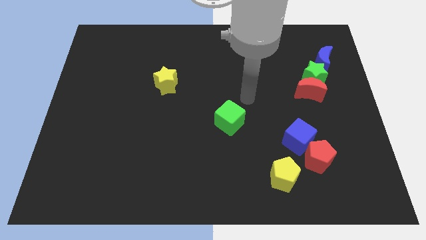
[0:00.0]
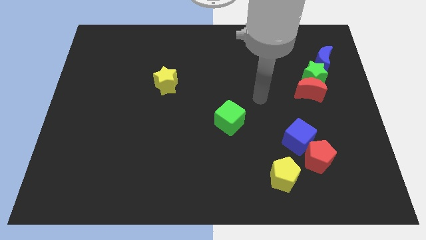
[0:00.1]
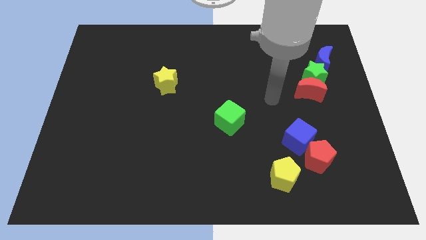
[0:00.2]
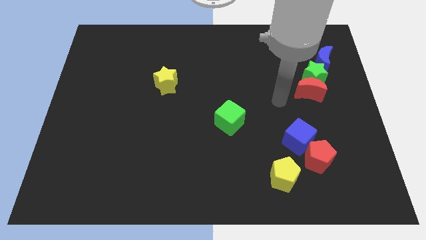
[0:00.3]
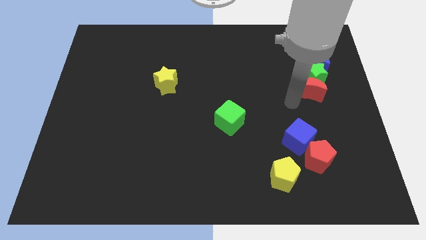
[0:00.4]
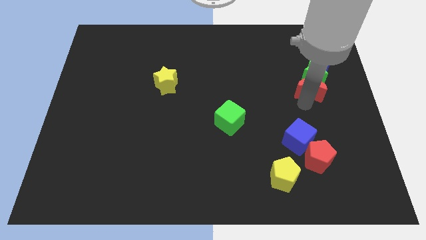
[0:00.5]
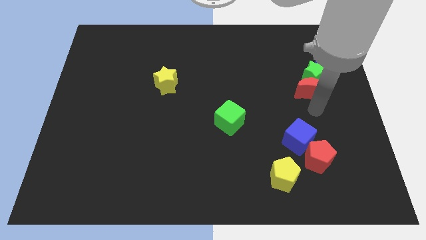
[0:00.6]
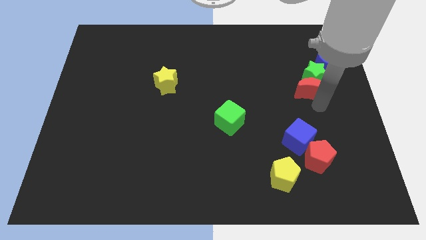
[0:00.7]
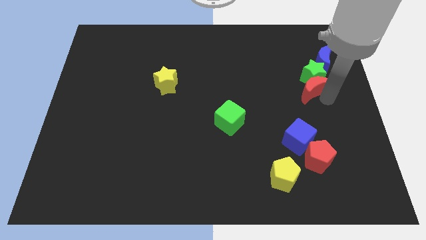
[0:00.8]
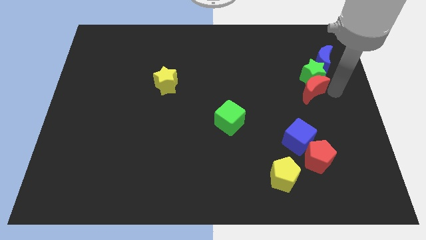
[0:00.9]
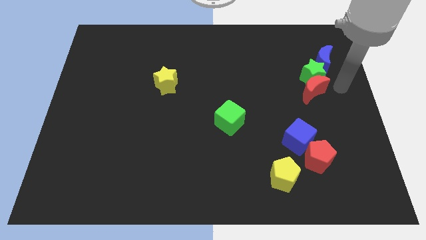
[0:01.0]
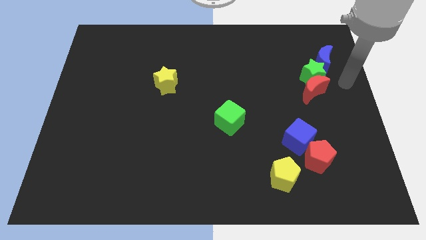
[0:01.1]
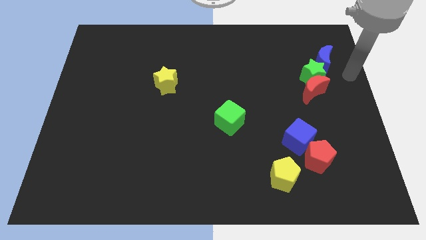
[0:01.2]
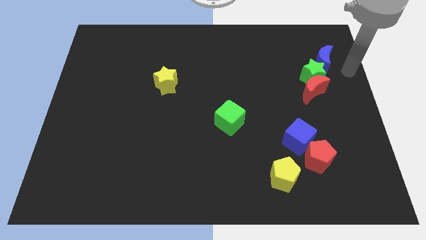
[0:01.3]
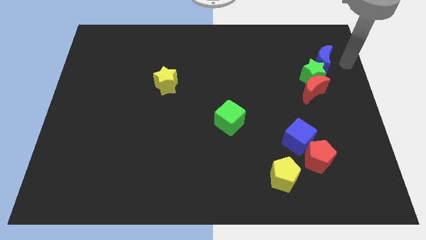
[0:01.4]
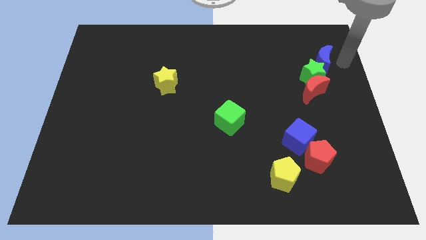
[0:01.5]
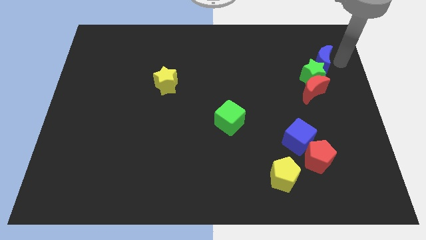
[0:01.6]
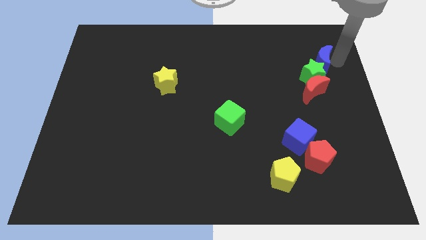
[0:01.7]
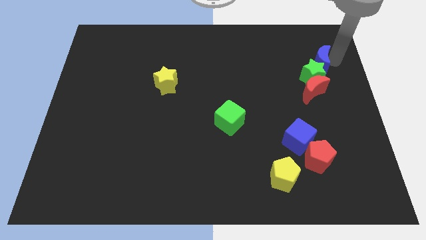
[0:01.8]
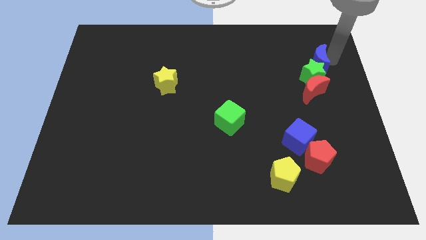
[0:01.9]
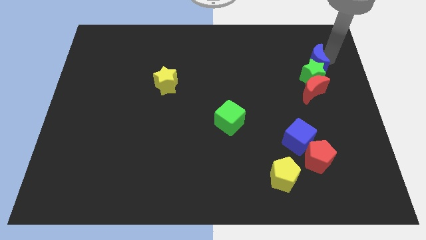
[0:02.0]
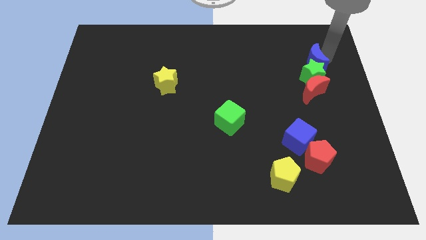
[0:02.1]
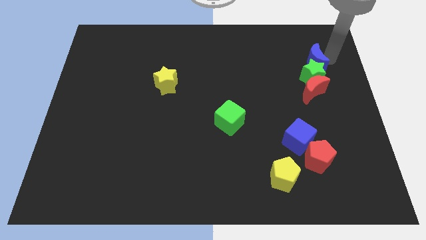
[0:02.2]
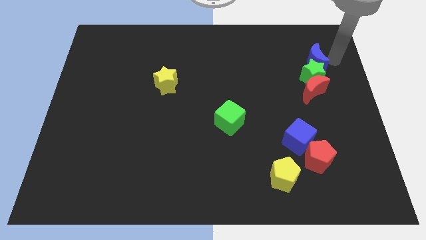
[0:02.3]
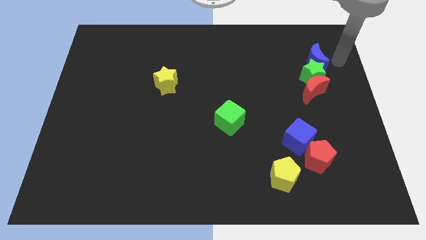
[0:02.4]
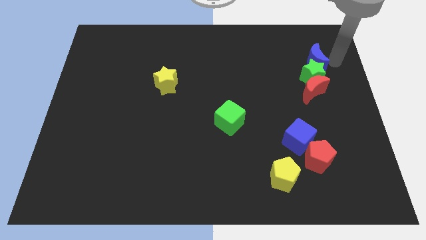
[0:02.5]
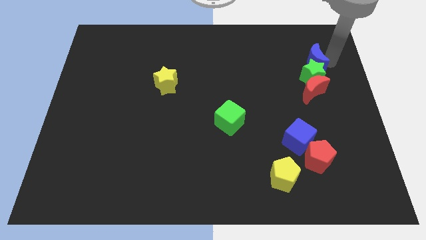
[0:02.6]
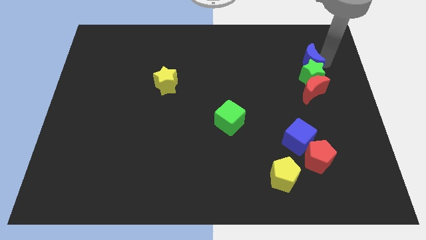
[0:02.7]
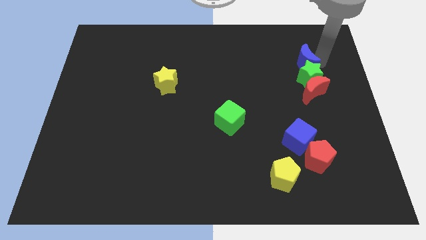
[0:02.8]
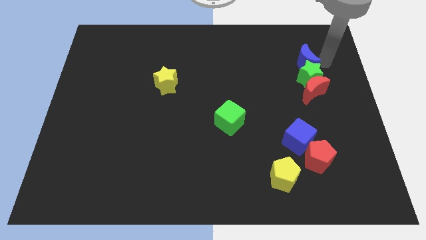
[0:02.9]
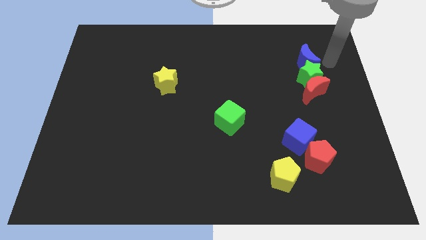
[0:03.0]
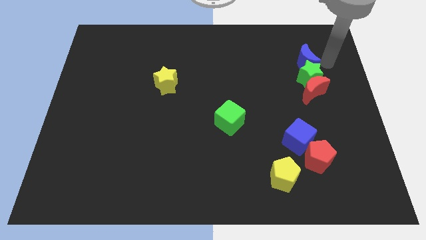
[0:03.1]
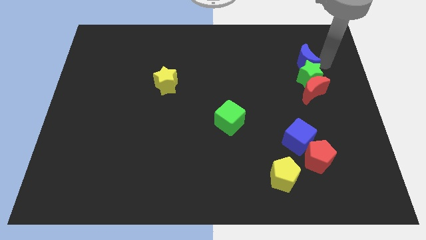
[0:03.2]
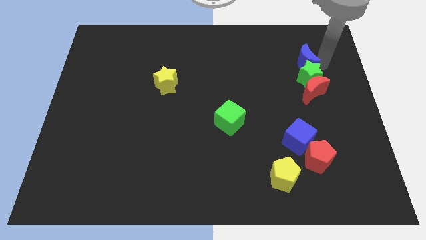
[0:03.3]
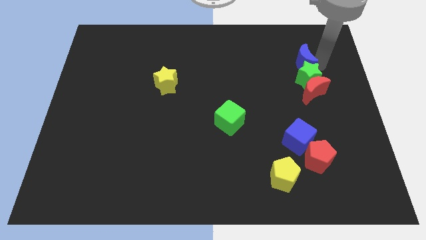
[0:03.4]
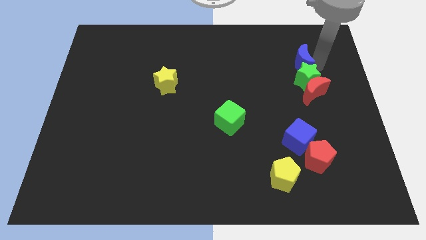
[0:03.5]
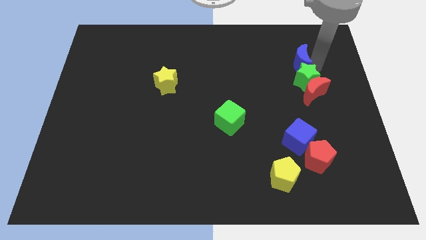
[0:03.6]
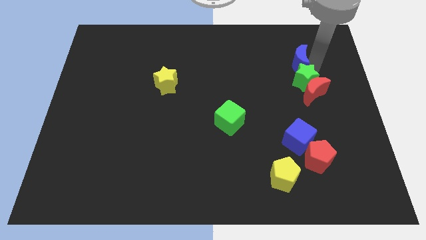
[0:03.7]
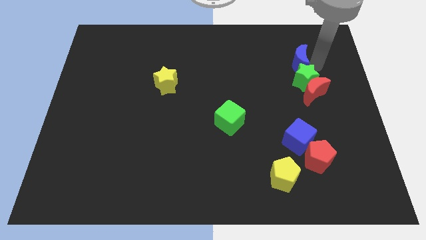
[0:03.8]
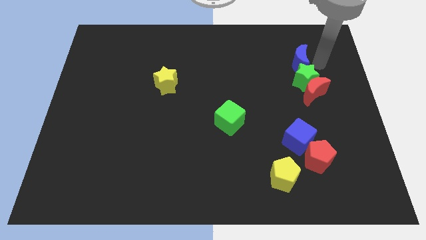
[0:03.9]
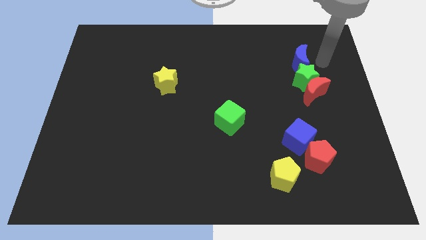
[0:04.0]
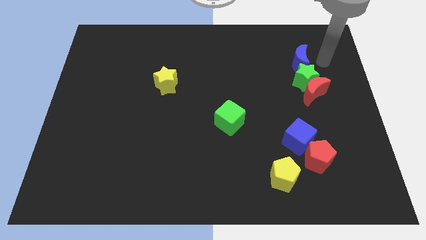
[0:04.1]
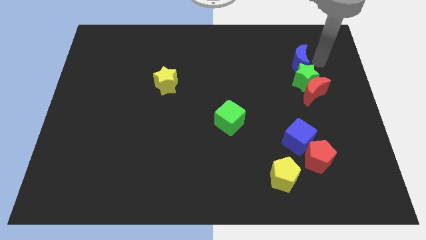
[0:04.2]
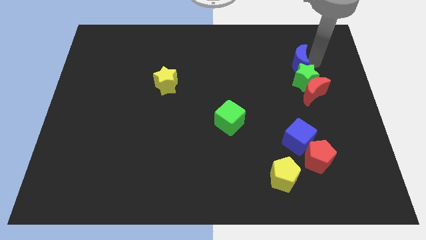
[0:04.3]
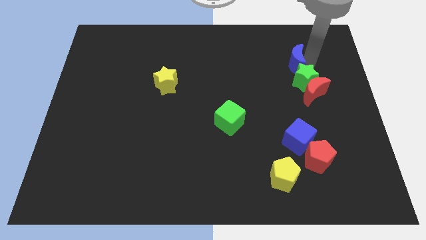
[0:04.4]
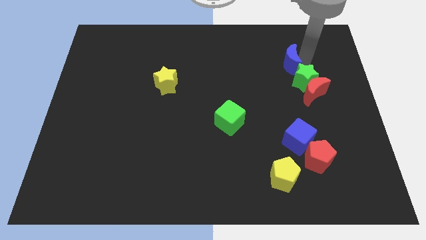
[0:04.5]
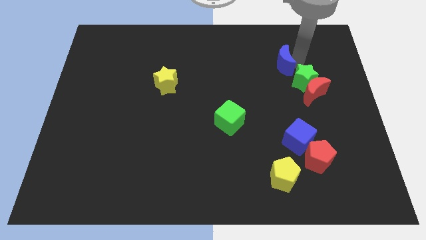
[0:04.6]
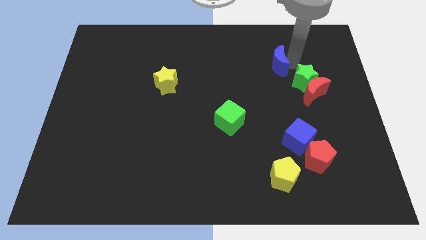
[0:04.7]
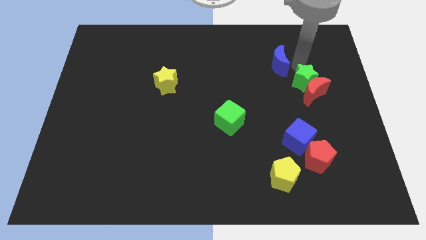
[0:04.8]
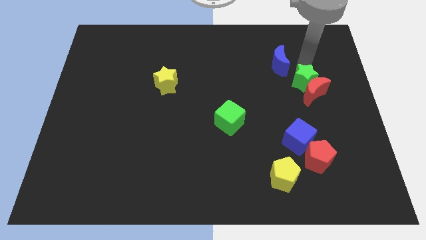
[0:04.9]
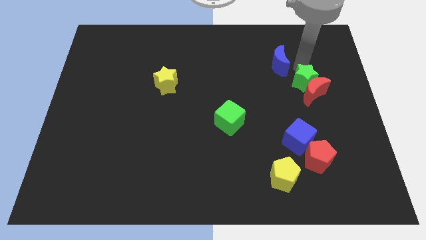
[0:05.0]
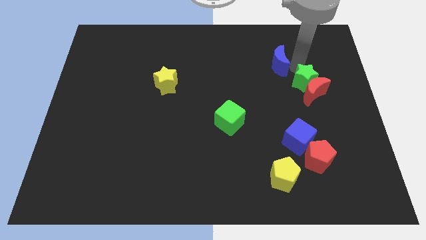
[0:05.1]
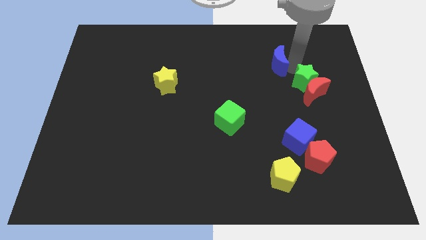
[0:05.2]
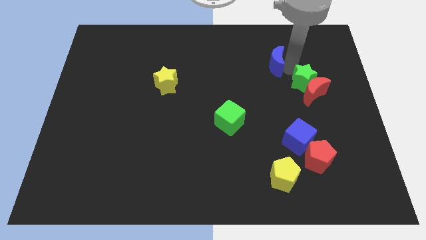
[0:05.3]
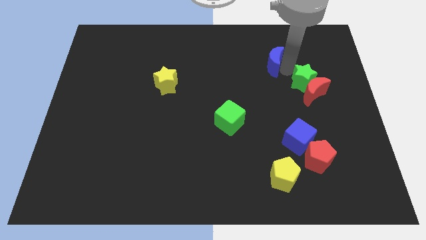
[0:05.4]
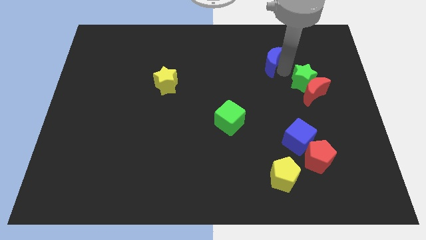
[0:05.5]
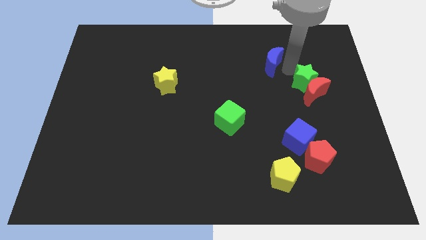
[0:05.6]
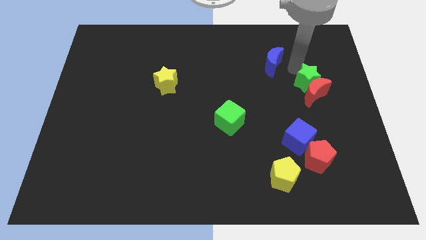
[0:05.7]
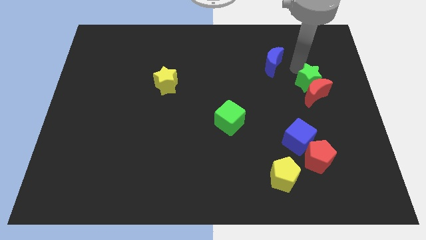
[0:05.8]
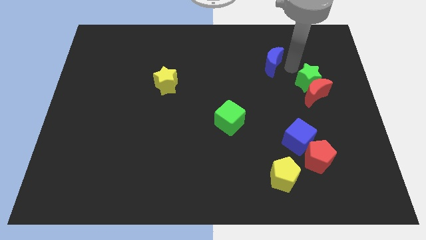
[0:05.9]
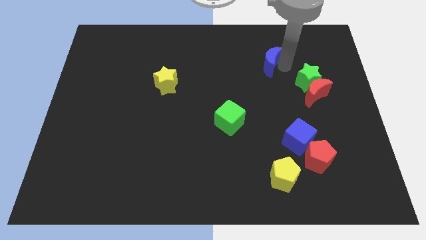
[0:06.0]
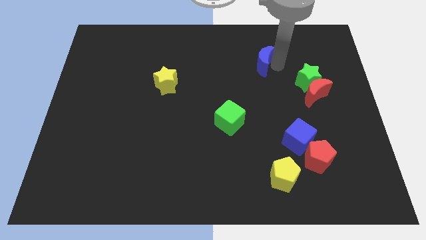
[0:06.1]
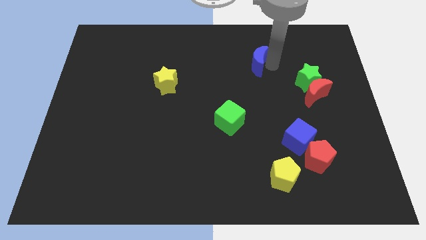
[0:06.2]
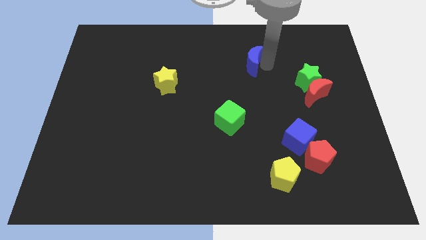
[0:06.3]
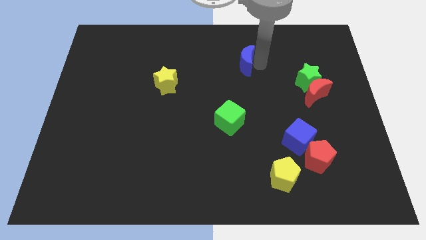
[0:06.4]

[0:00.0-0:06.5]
move the blue moon left

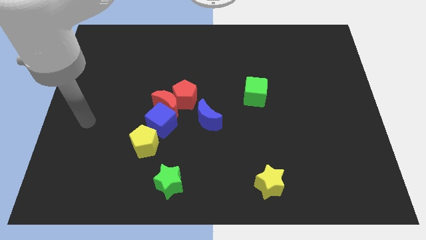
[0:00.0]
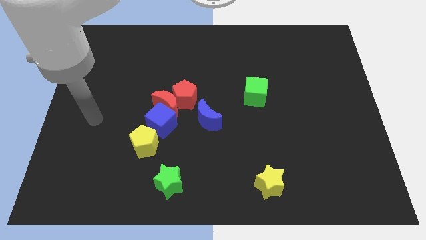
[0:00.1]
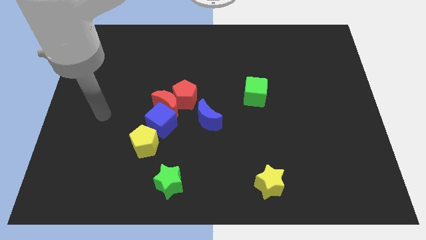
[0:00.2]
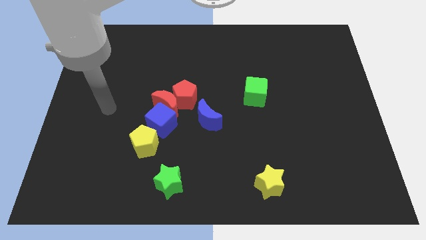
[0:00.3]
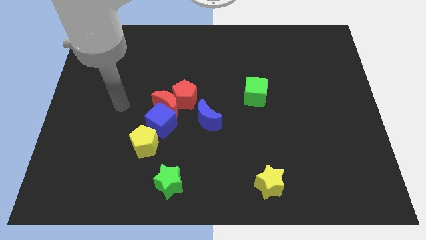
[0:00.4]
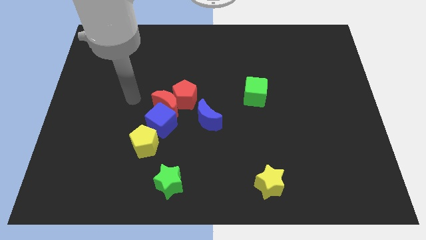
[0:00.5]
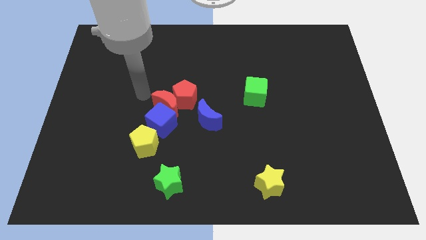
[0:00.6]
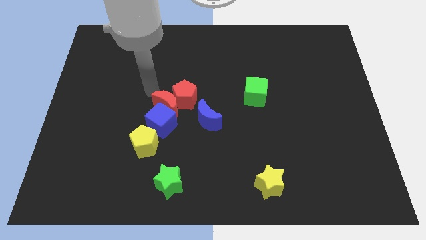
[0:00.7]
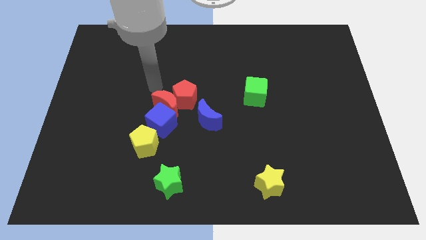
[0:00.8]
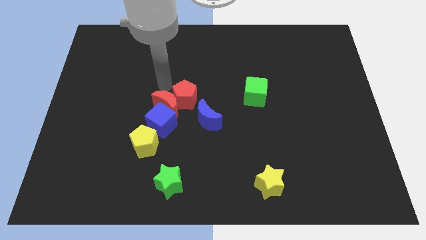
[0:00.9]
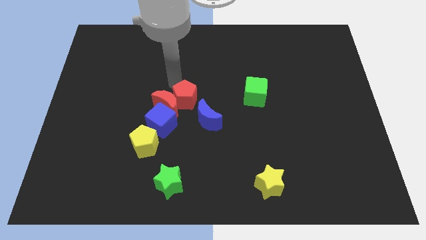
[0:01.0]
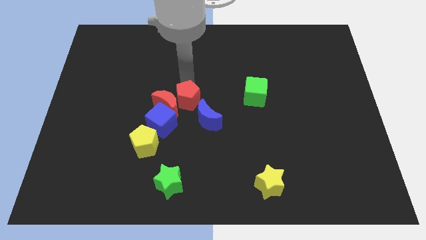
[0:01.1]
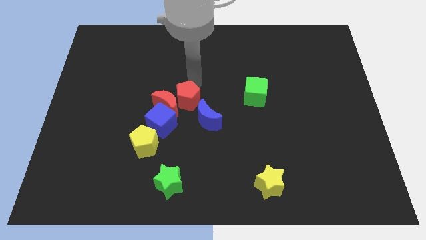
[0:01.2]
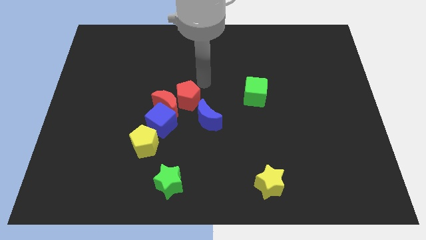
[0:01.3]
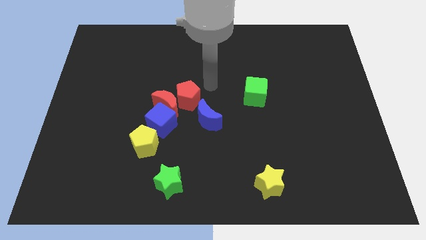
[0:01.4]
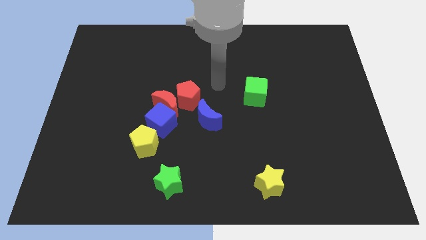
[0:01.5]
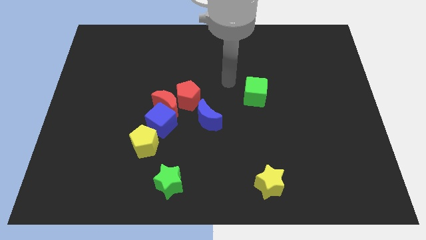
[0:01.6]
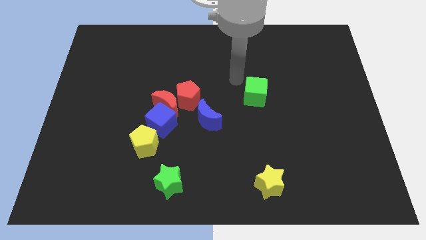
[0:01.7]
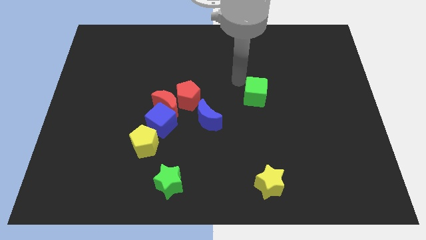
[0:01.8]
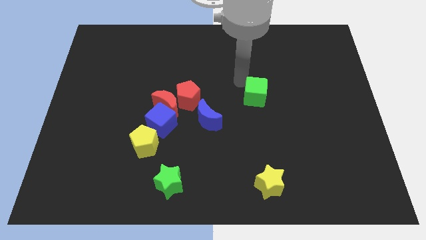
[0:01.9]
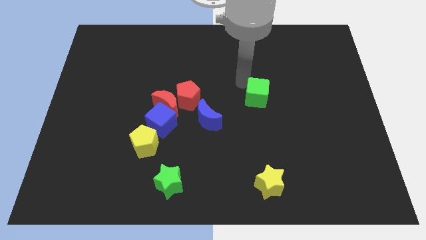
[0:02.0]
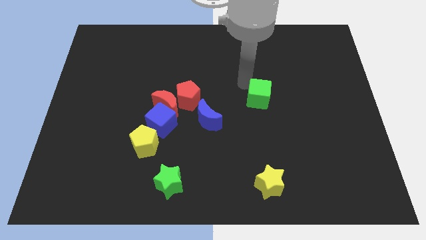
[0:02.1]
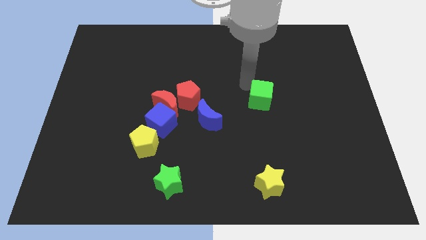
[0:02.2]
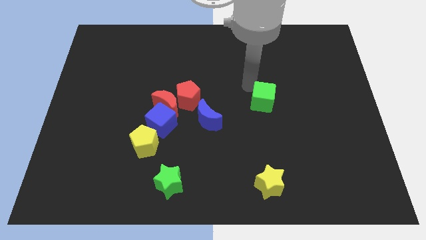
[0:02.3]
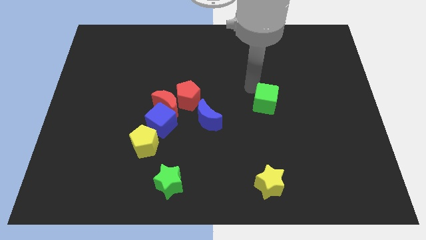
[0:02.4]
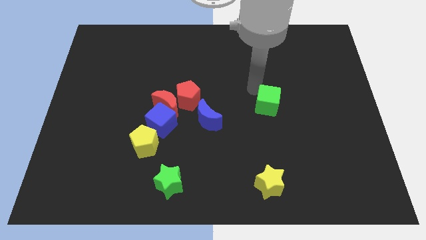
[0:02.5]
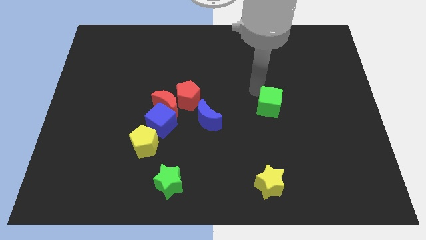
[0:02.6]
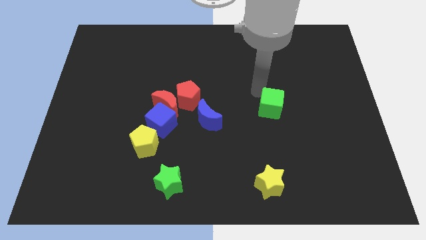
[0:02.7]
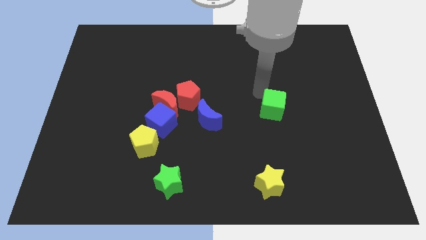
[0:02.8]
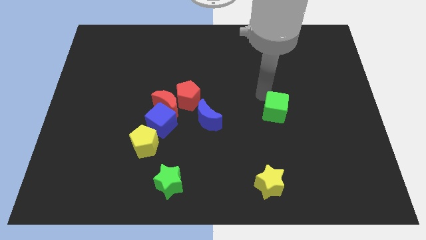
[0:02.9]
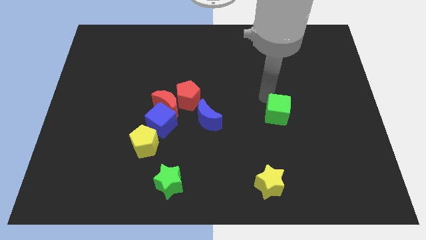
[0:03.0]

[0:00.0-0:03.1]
push the green cube downwards and right slightly
